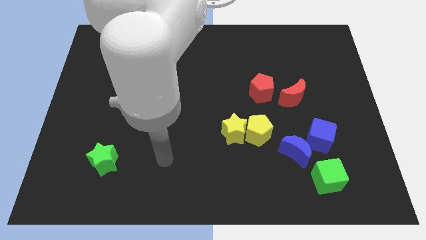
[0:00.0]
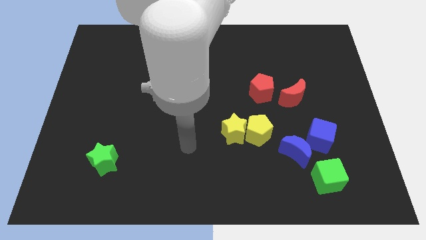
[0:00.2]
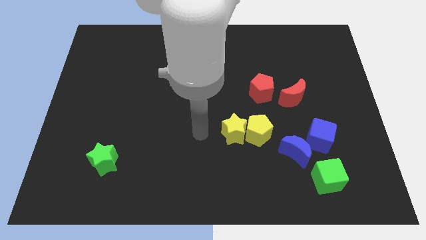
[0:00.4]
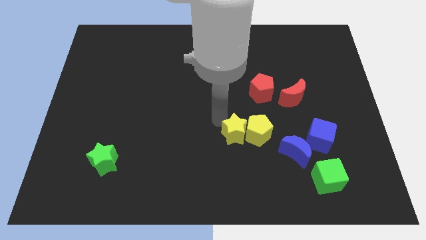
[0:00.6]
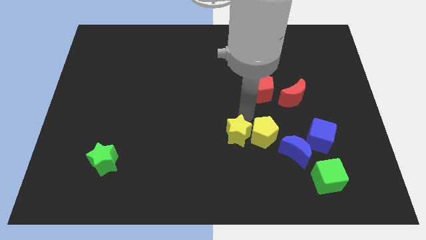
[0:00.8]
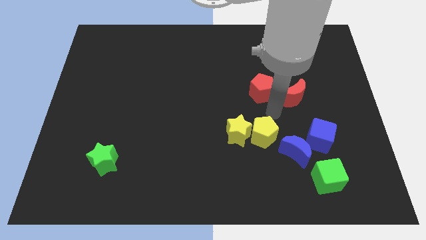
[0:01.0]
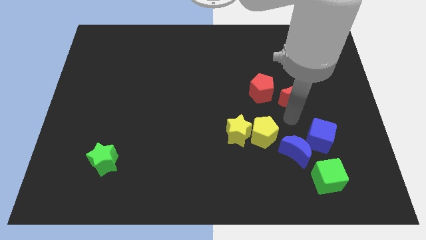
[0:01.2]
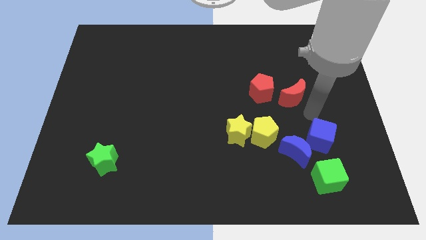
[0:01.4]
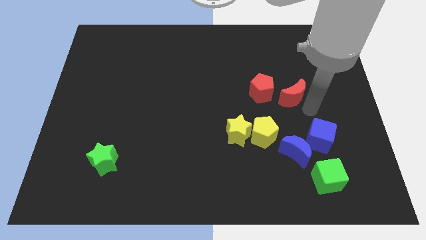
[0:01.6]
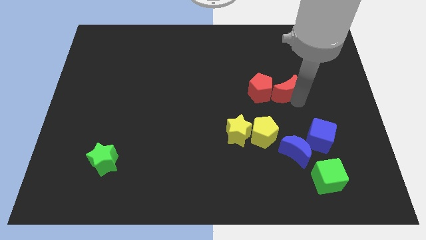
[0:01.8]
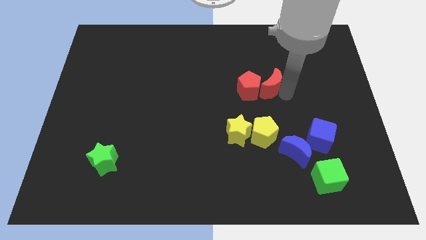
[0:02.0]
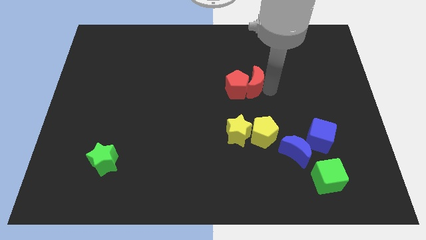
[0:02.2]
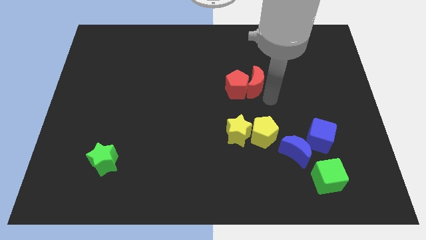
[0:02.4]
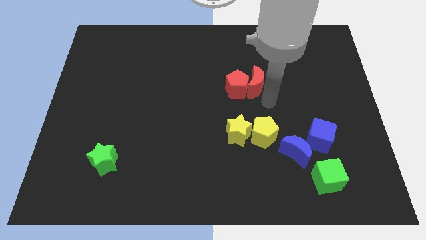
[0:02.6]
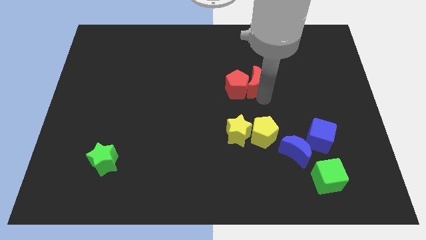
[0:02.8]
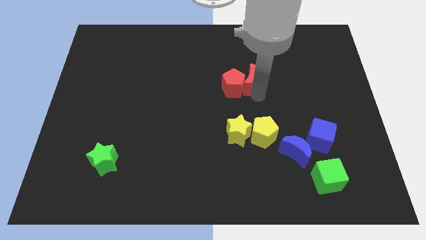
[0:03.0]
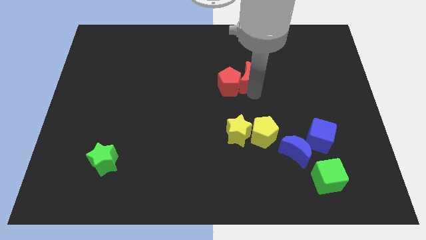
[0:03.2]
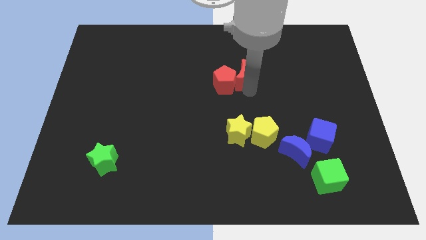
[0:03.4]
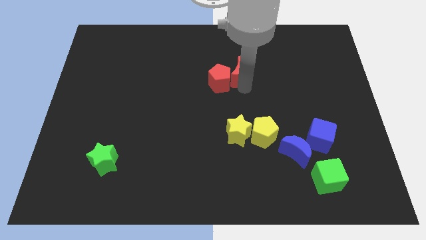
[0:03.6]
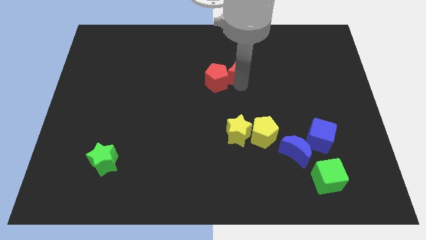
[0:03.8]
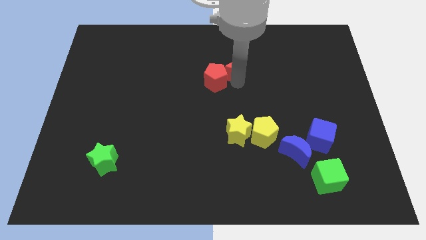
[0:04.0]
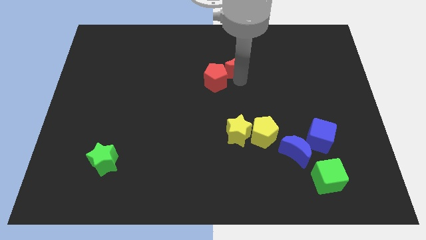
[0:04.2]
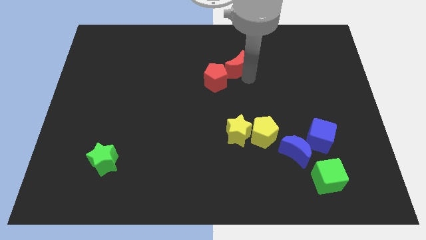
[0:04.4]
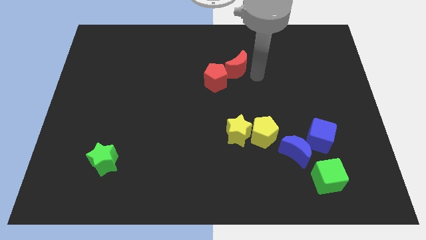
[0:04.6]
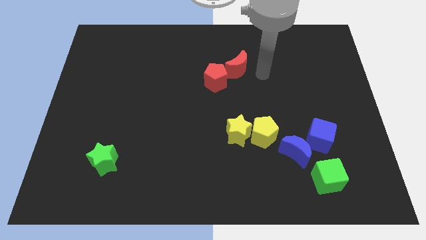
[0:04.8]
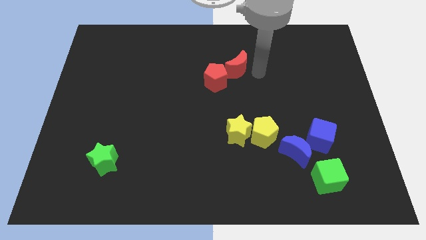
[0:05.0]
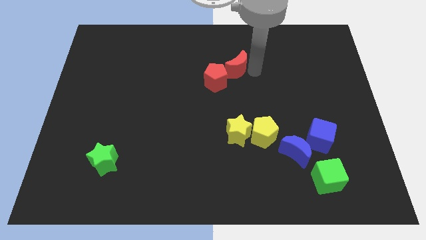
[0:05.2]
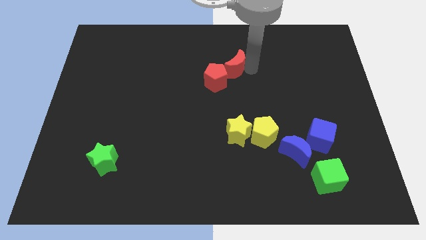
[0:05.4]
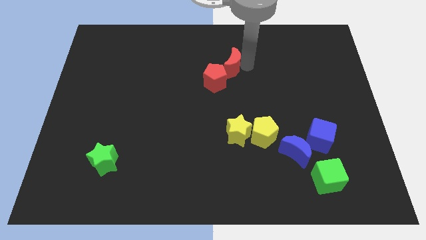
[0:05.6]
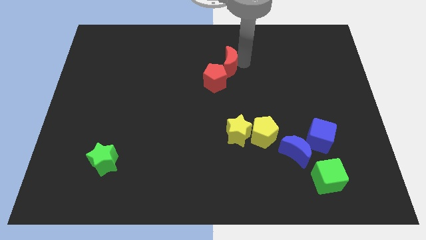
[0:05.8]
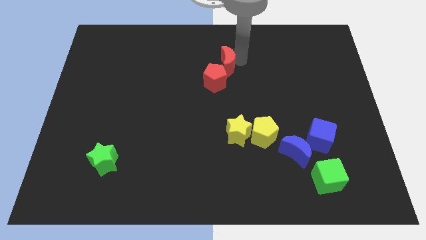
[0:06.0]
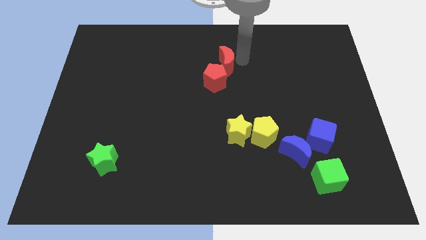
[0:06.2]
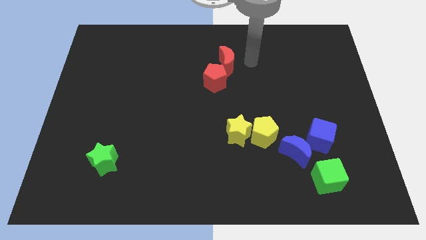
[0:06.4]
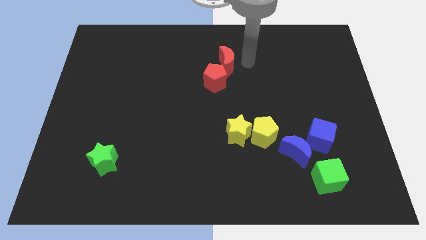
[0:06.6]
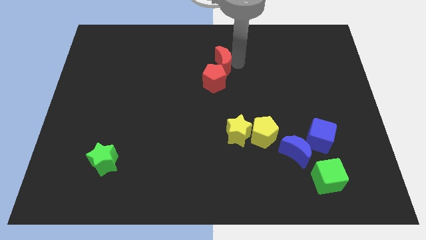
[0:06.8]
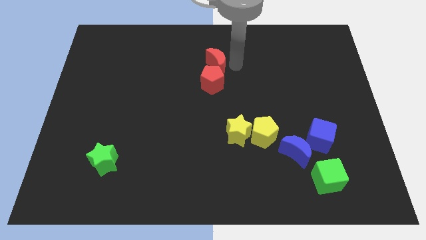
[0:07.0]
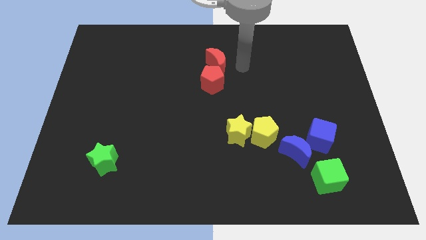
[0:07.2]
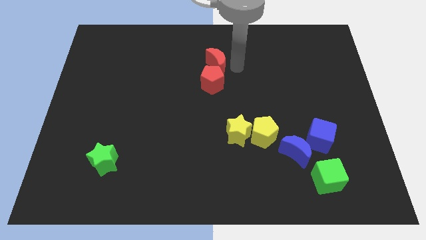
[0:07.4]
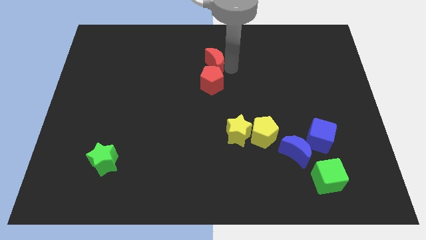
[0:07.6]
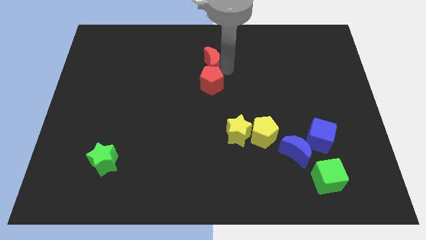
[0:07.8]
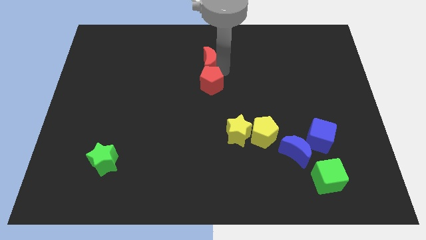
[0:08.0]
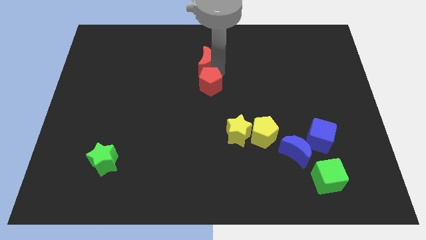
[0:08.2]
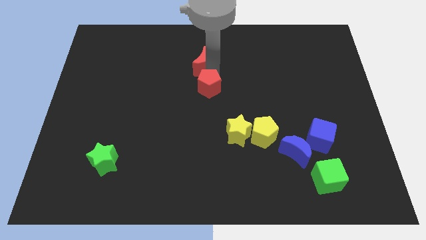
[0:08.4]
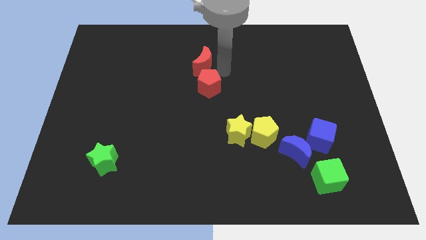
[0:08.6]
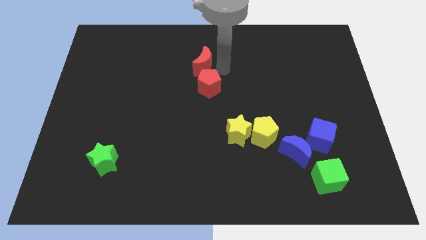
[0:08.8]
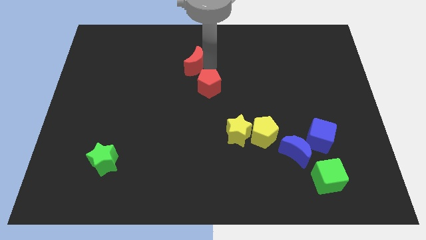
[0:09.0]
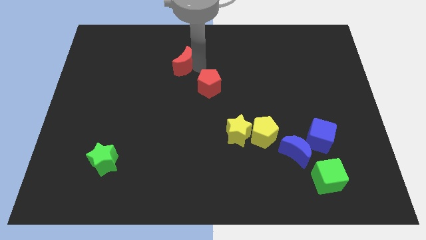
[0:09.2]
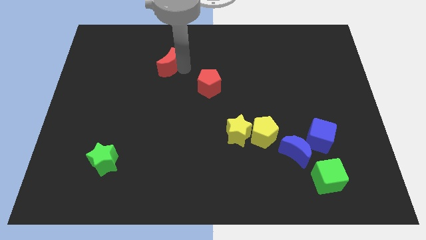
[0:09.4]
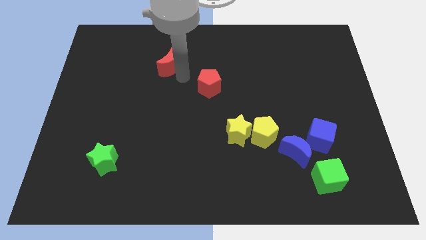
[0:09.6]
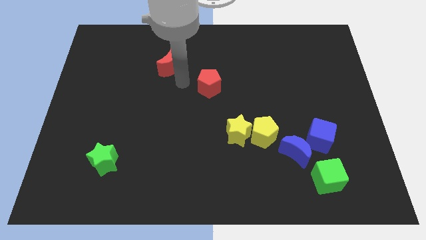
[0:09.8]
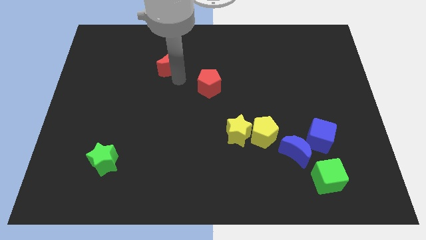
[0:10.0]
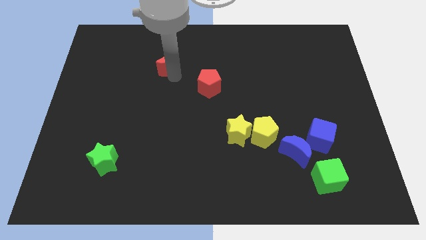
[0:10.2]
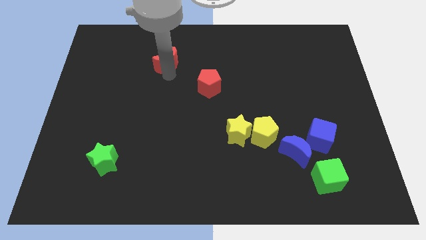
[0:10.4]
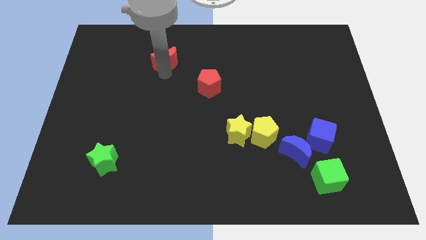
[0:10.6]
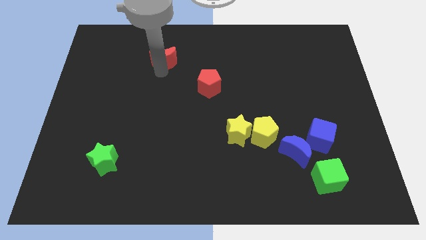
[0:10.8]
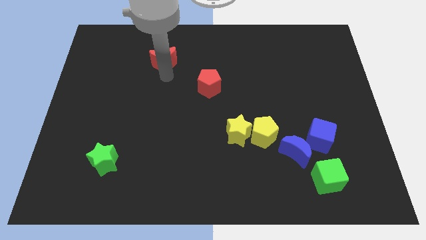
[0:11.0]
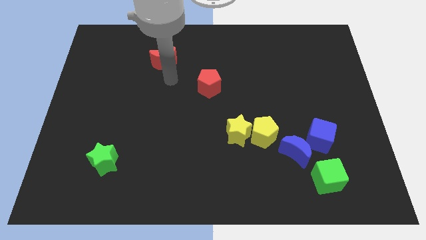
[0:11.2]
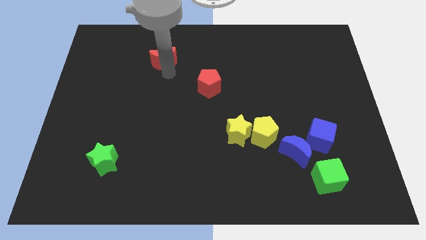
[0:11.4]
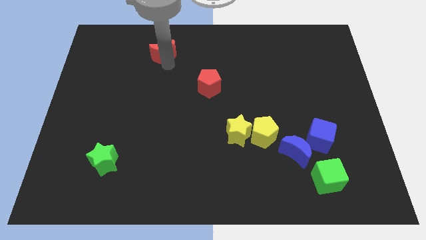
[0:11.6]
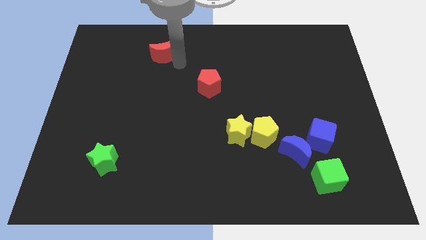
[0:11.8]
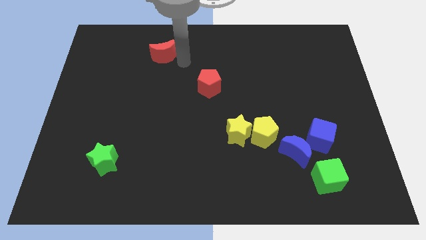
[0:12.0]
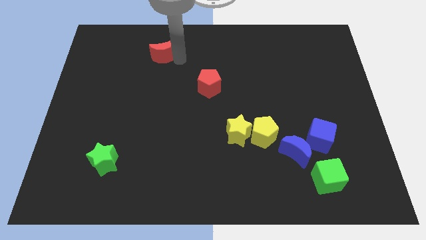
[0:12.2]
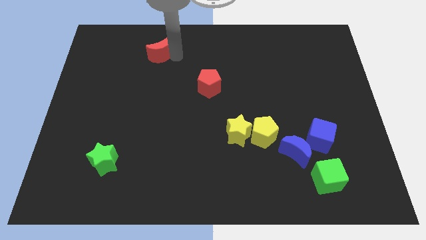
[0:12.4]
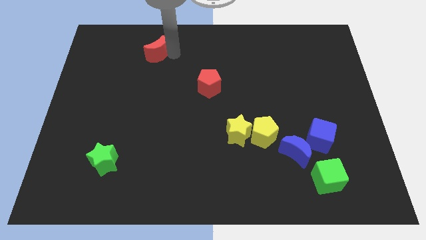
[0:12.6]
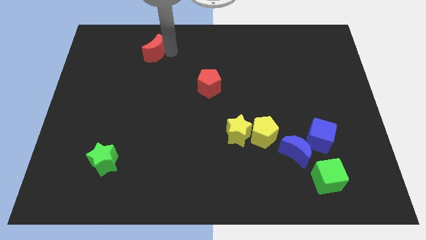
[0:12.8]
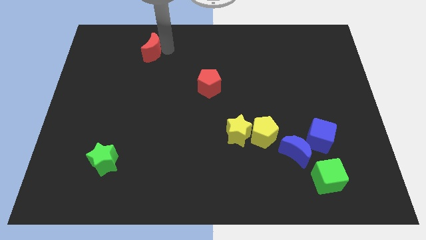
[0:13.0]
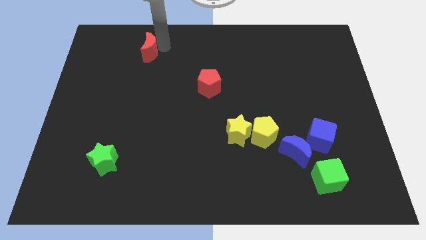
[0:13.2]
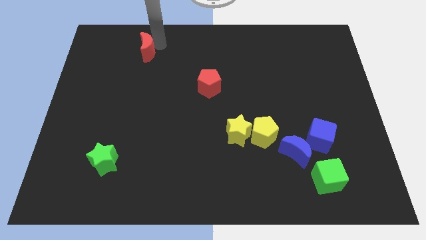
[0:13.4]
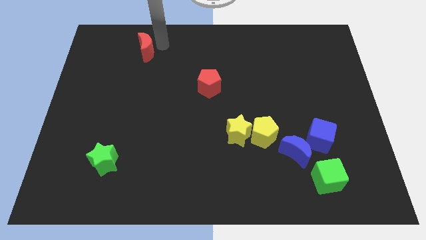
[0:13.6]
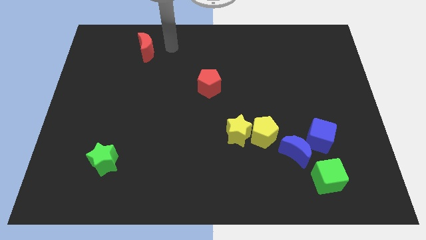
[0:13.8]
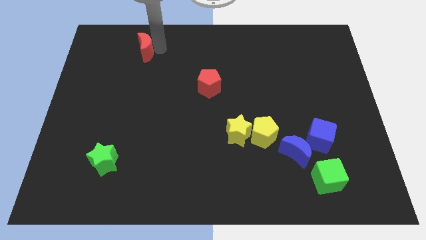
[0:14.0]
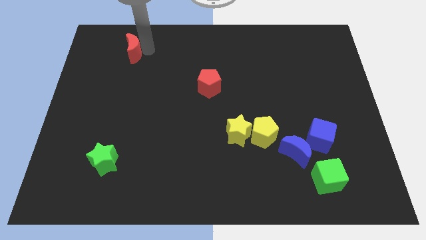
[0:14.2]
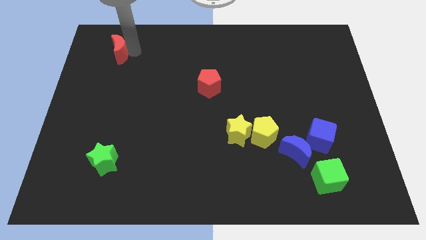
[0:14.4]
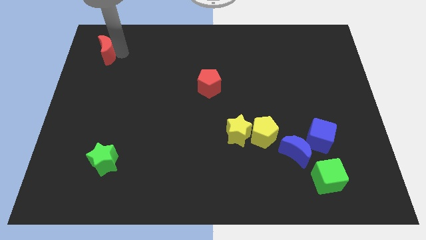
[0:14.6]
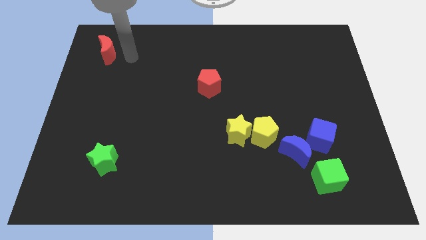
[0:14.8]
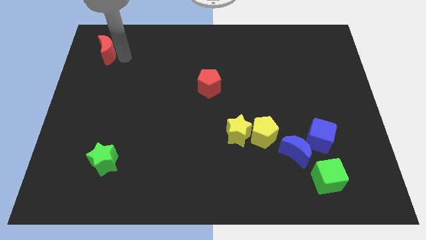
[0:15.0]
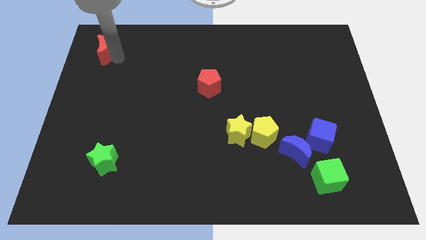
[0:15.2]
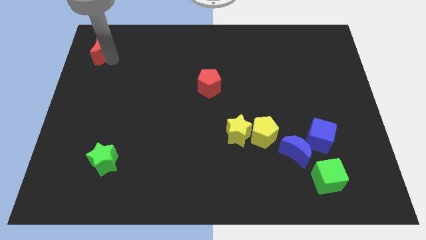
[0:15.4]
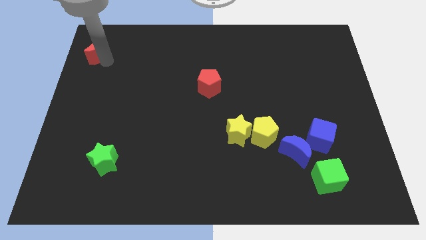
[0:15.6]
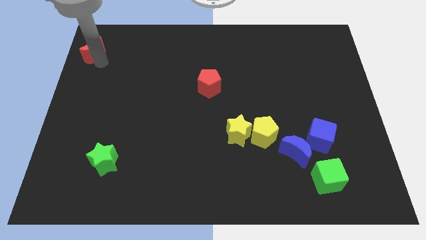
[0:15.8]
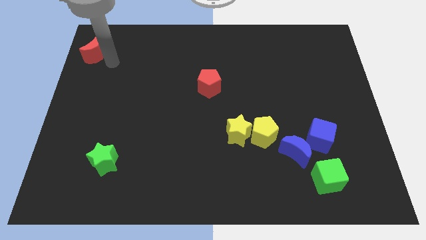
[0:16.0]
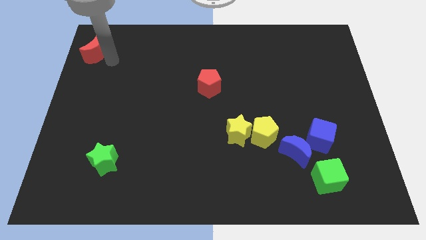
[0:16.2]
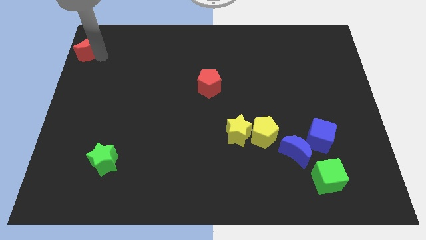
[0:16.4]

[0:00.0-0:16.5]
move the red moon to the top left
